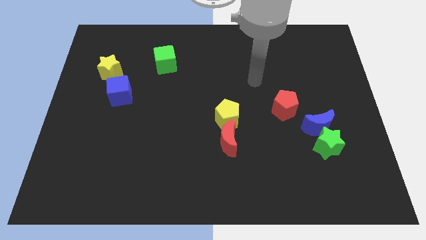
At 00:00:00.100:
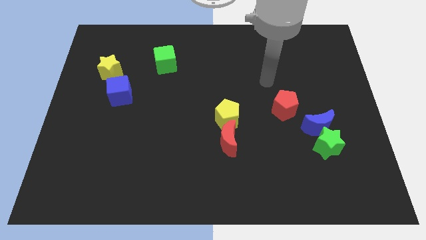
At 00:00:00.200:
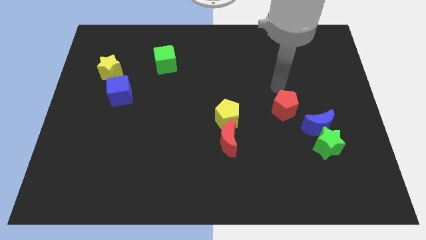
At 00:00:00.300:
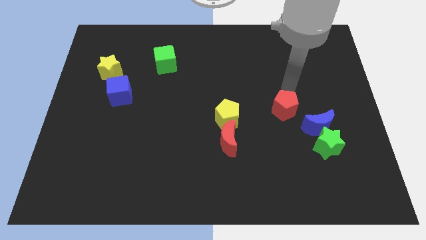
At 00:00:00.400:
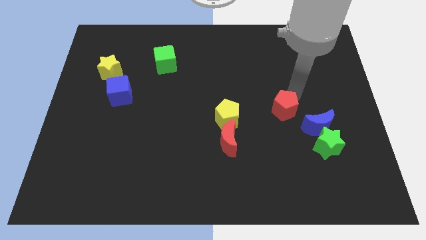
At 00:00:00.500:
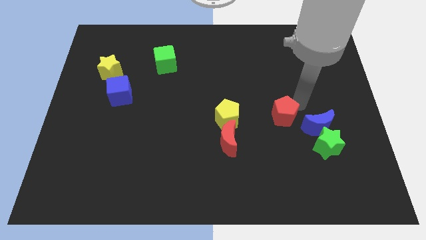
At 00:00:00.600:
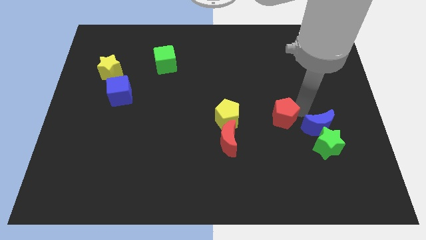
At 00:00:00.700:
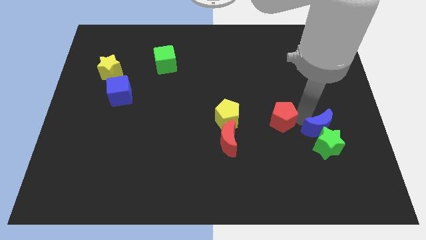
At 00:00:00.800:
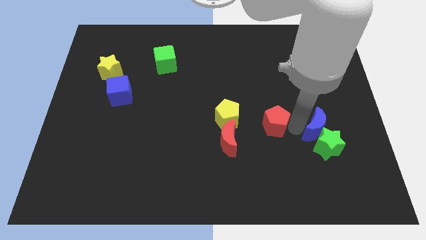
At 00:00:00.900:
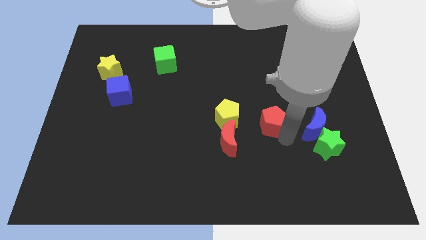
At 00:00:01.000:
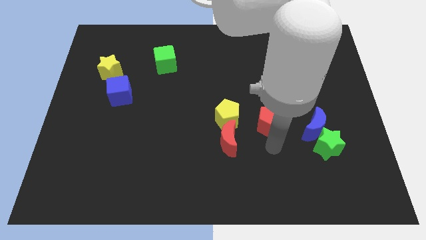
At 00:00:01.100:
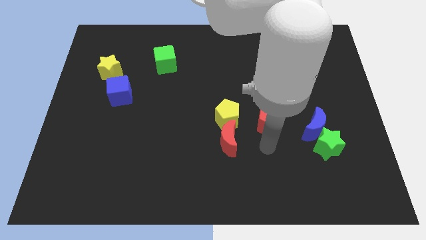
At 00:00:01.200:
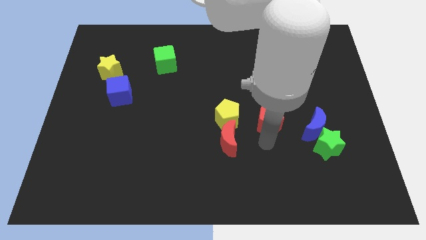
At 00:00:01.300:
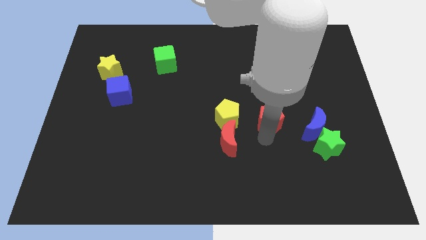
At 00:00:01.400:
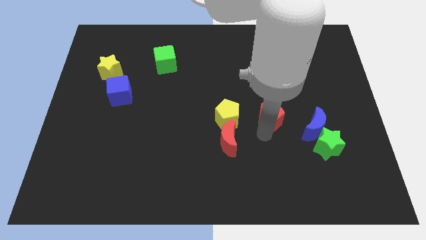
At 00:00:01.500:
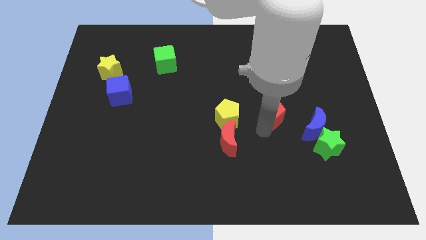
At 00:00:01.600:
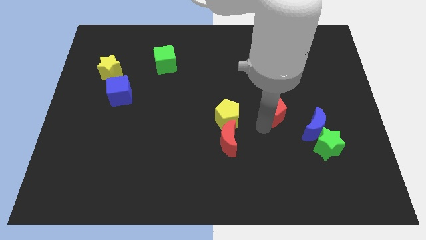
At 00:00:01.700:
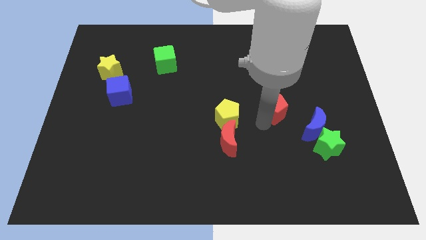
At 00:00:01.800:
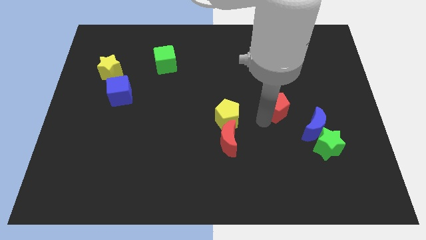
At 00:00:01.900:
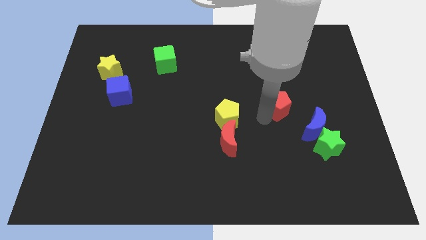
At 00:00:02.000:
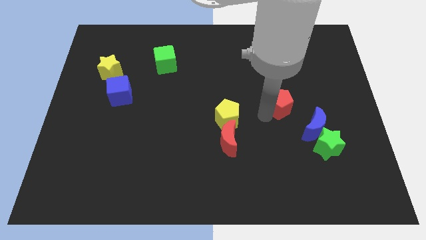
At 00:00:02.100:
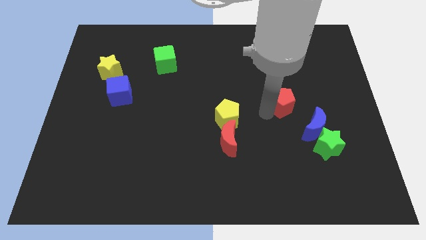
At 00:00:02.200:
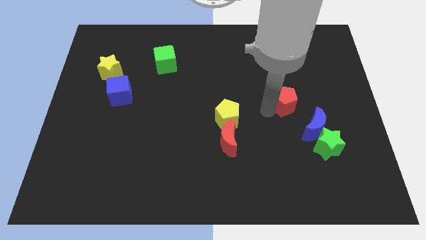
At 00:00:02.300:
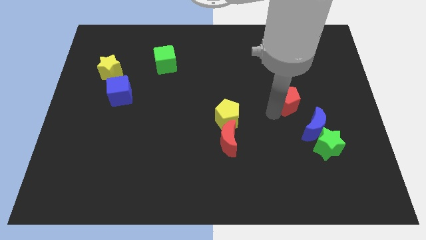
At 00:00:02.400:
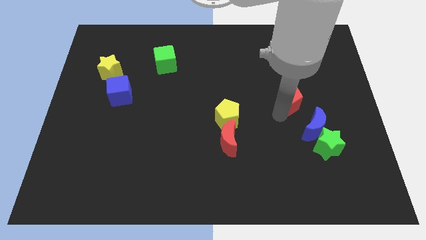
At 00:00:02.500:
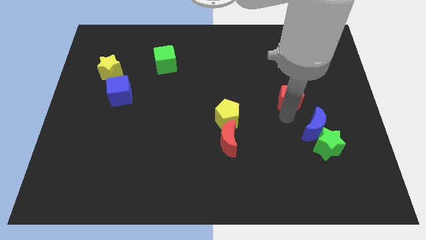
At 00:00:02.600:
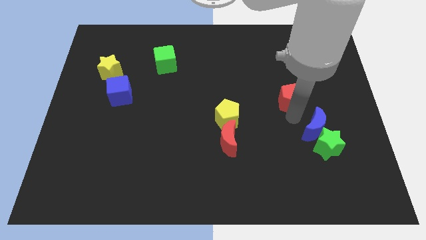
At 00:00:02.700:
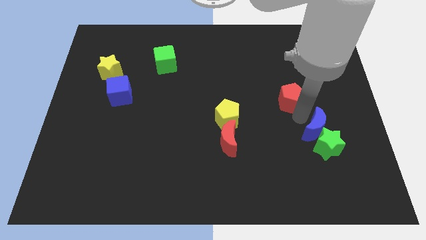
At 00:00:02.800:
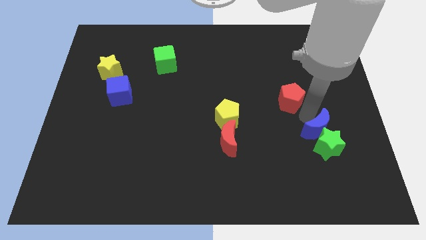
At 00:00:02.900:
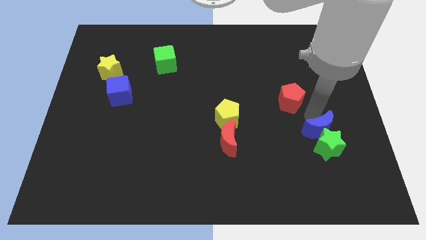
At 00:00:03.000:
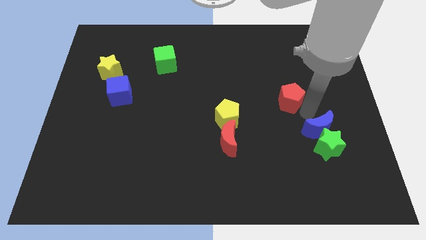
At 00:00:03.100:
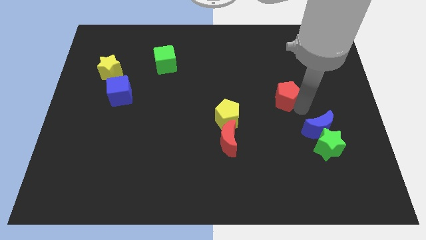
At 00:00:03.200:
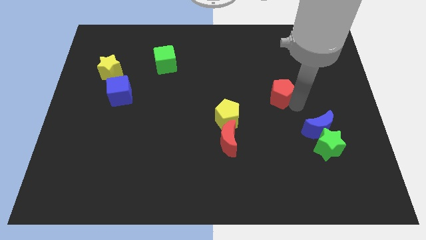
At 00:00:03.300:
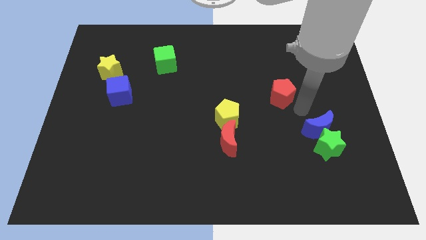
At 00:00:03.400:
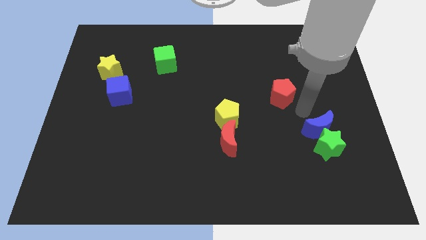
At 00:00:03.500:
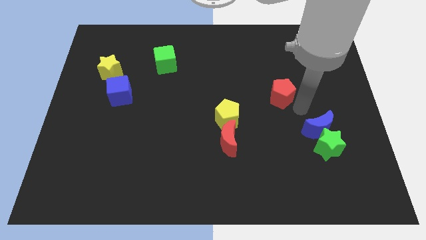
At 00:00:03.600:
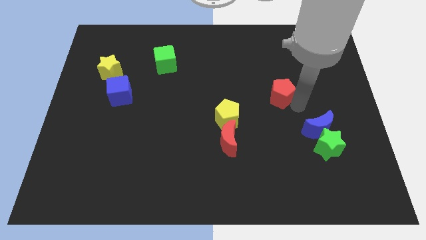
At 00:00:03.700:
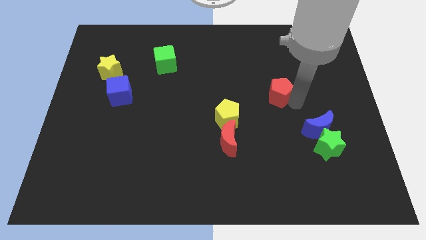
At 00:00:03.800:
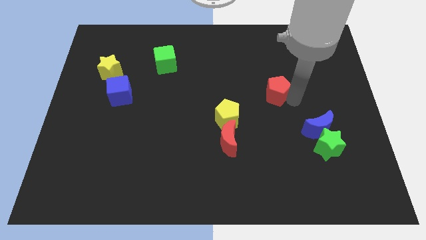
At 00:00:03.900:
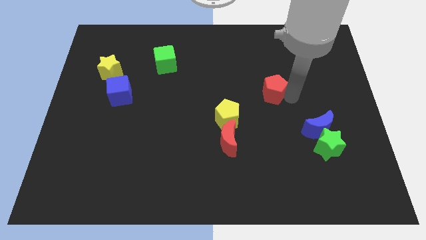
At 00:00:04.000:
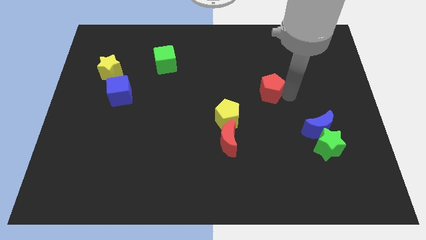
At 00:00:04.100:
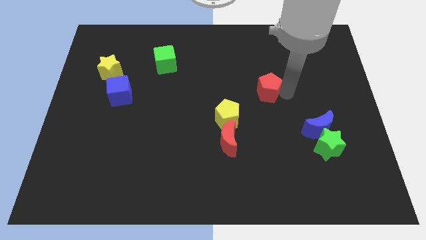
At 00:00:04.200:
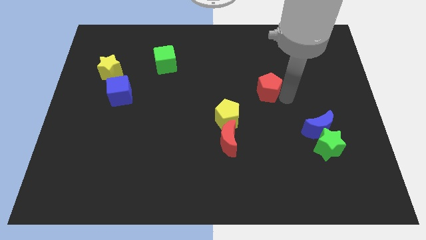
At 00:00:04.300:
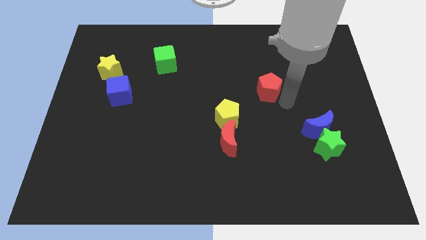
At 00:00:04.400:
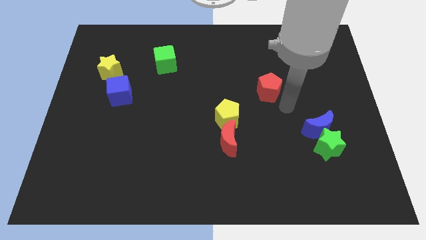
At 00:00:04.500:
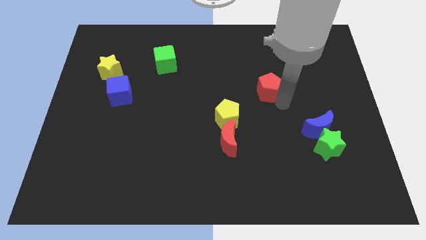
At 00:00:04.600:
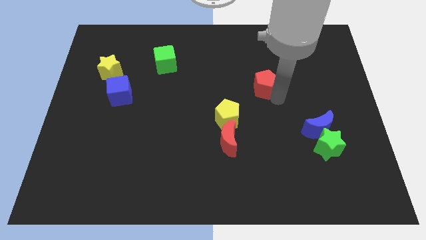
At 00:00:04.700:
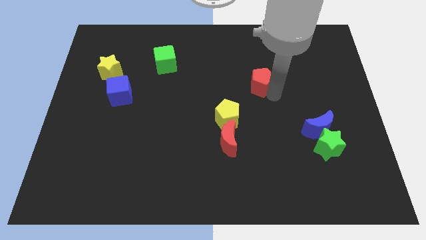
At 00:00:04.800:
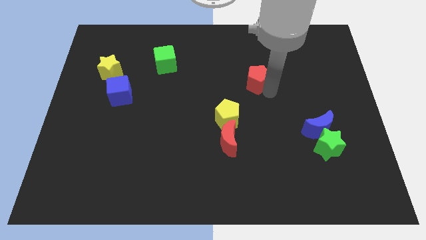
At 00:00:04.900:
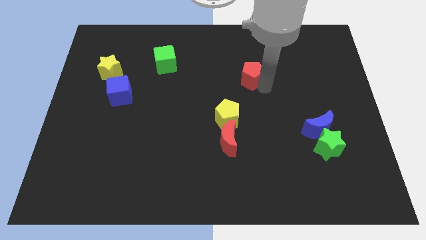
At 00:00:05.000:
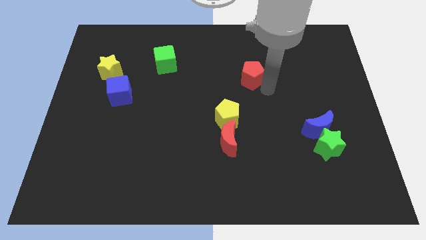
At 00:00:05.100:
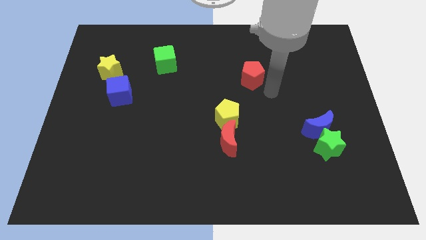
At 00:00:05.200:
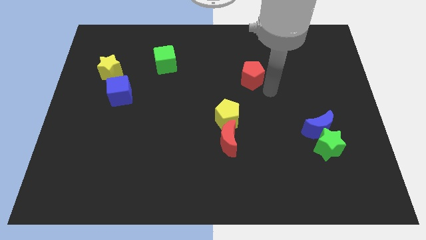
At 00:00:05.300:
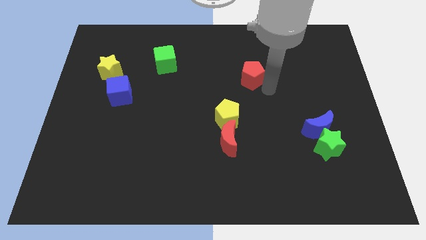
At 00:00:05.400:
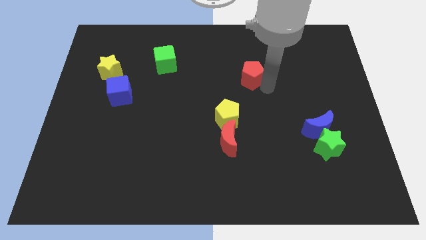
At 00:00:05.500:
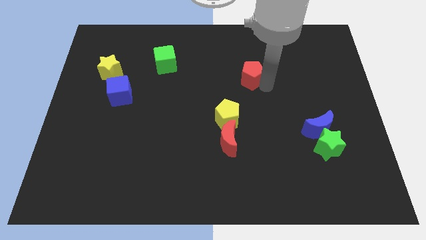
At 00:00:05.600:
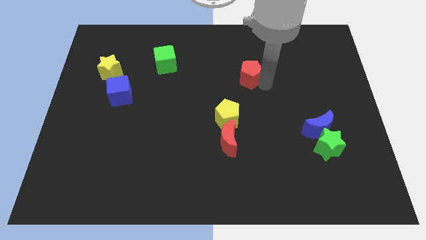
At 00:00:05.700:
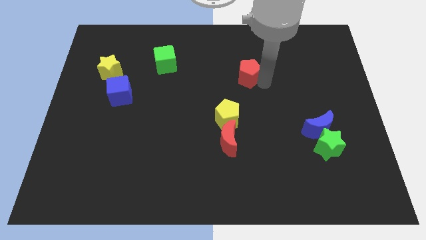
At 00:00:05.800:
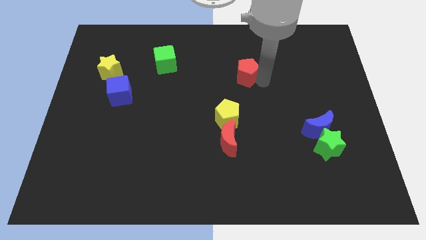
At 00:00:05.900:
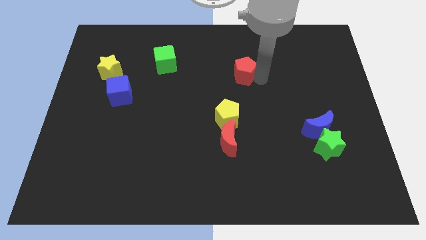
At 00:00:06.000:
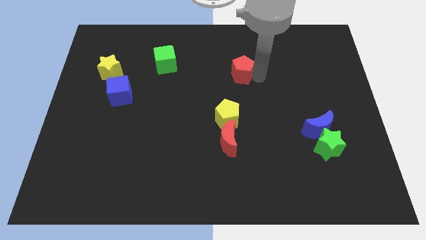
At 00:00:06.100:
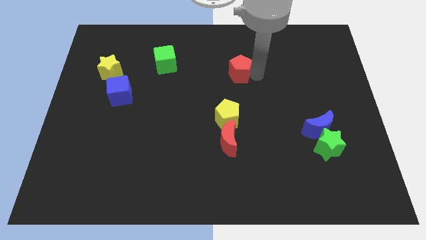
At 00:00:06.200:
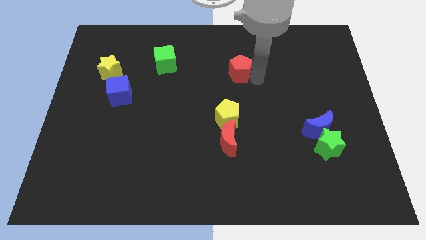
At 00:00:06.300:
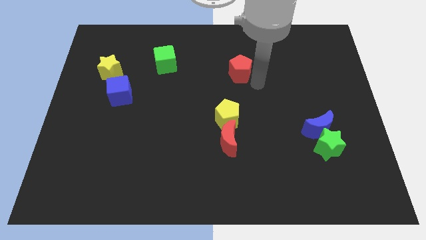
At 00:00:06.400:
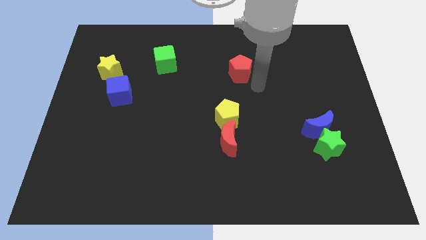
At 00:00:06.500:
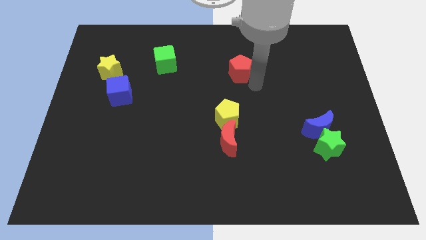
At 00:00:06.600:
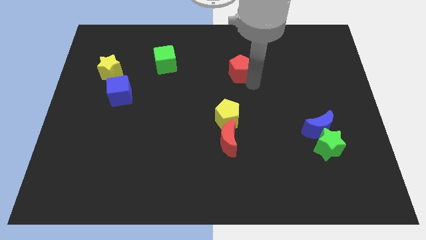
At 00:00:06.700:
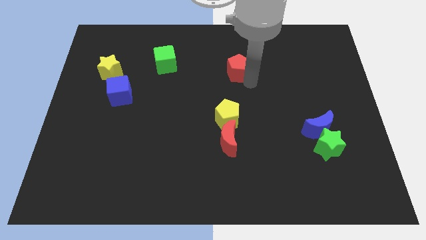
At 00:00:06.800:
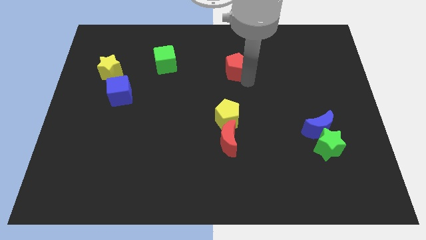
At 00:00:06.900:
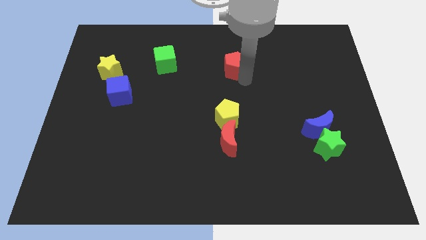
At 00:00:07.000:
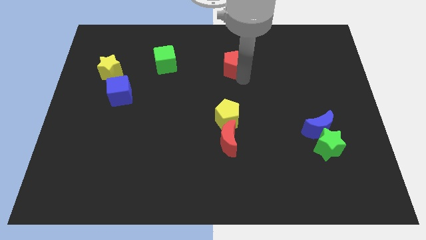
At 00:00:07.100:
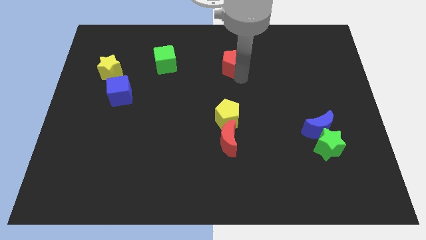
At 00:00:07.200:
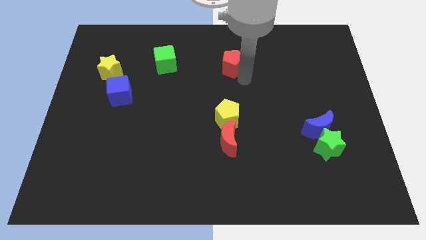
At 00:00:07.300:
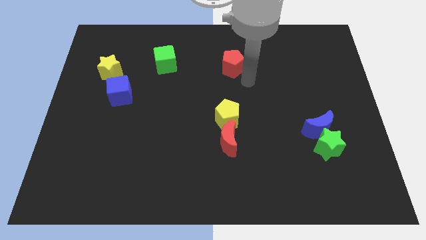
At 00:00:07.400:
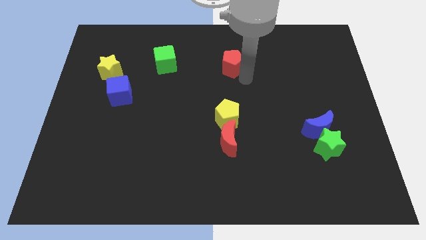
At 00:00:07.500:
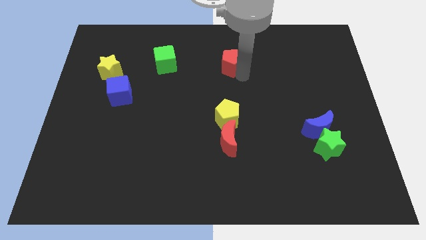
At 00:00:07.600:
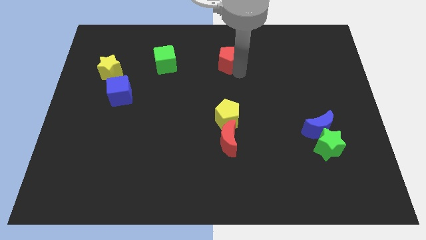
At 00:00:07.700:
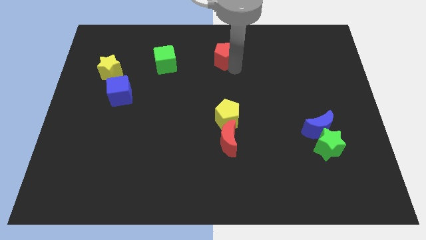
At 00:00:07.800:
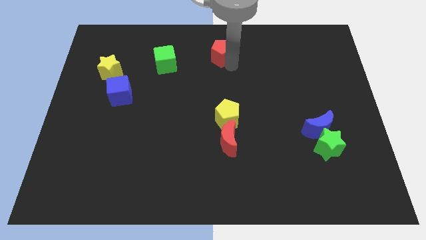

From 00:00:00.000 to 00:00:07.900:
push the red pentagon to the top
